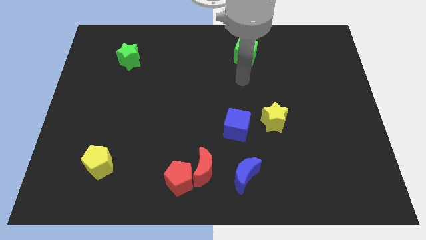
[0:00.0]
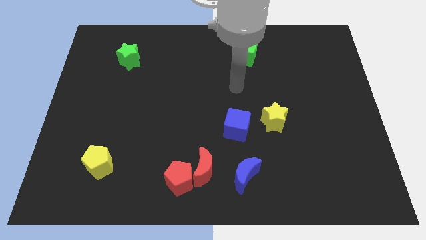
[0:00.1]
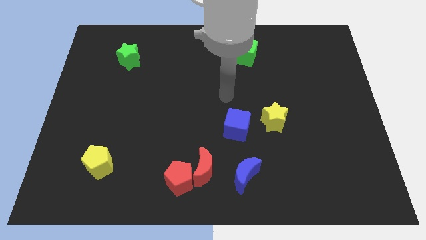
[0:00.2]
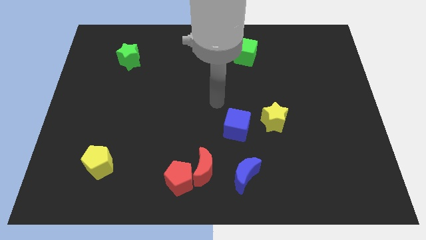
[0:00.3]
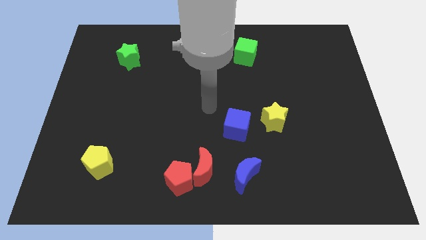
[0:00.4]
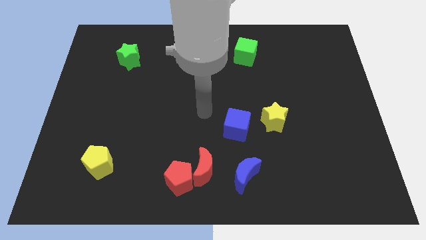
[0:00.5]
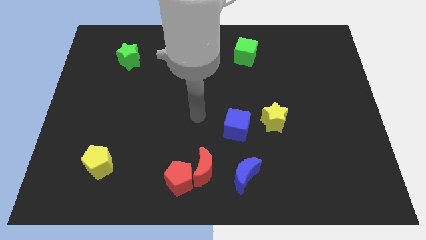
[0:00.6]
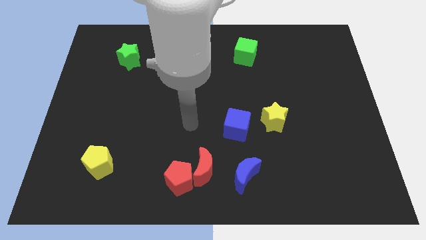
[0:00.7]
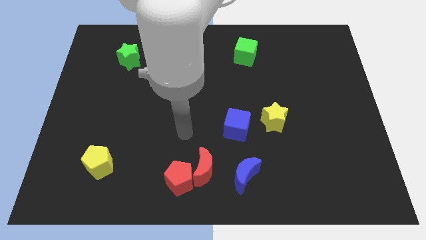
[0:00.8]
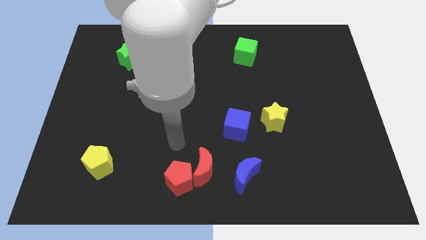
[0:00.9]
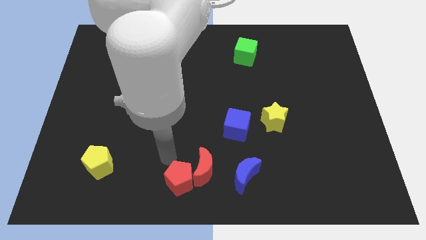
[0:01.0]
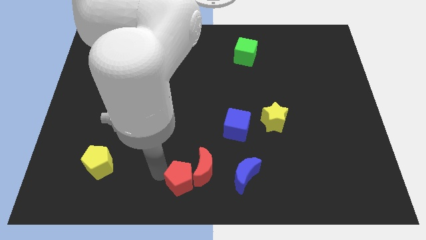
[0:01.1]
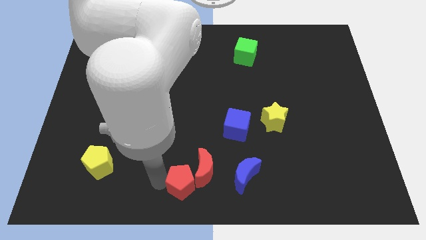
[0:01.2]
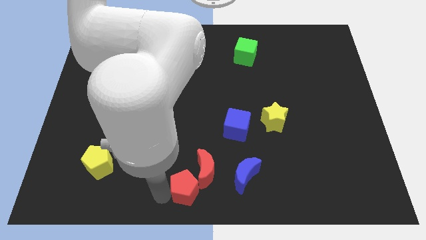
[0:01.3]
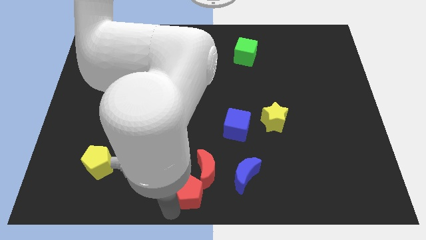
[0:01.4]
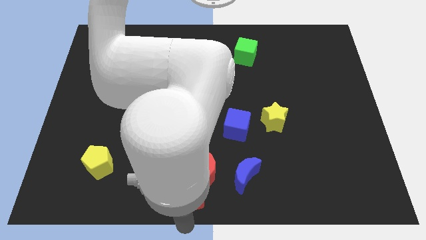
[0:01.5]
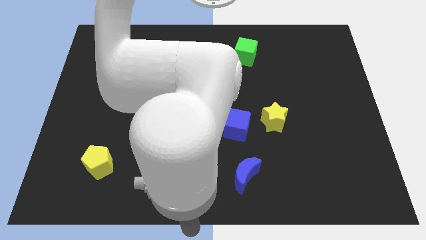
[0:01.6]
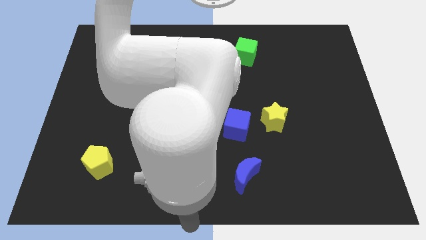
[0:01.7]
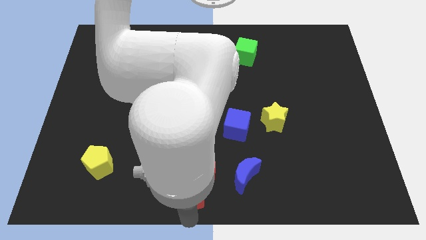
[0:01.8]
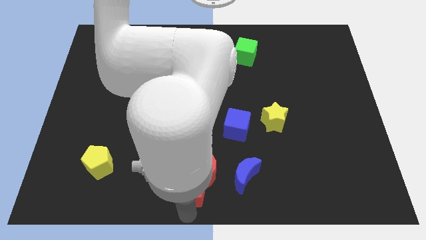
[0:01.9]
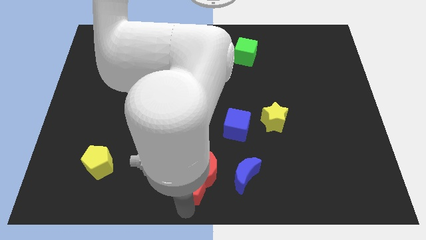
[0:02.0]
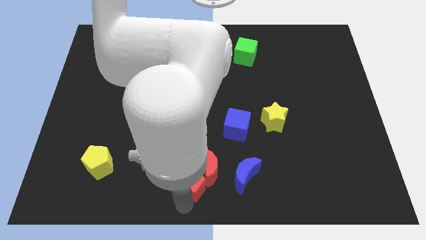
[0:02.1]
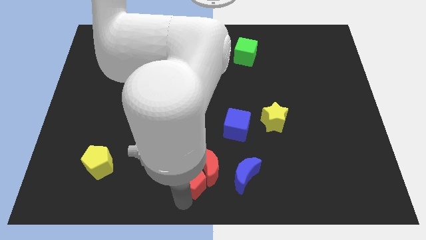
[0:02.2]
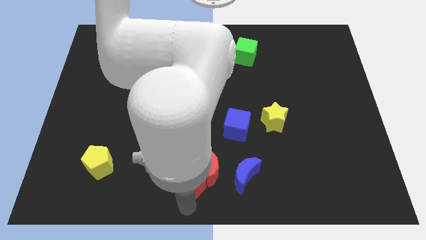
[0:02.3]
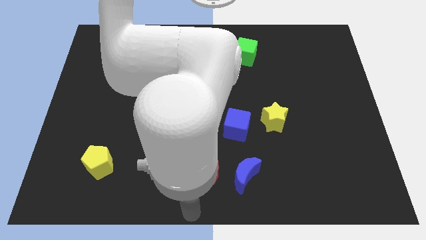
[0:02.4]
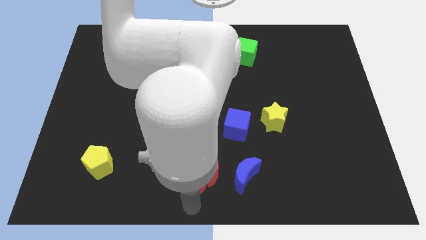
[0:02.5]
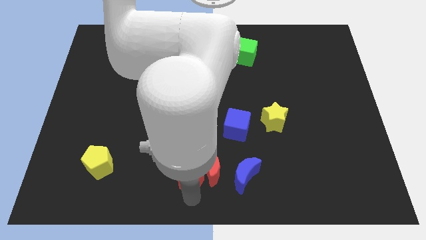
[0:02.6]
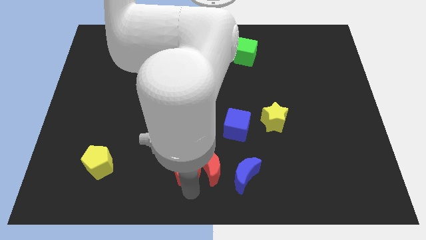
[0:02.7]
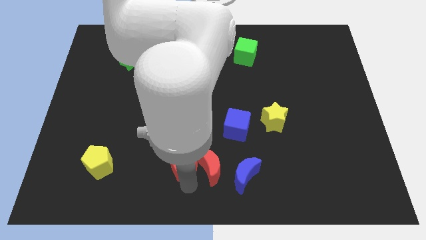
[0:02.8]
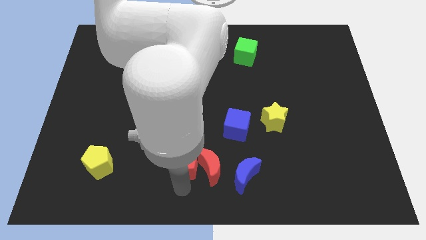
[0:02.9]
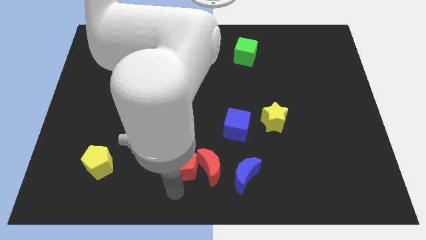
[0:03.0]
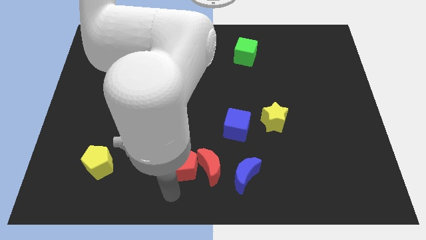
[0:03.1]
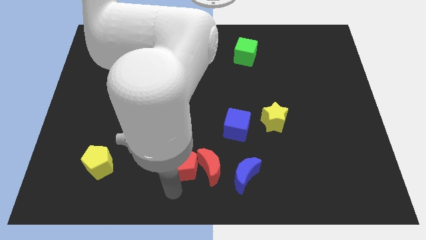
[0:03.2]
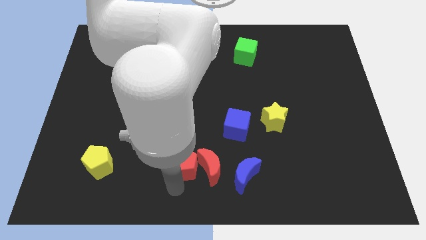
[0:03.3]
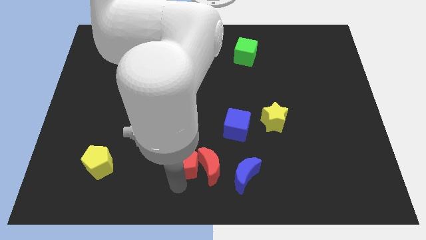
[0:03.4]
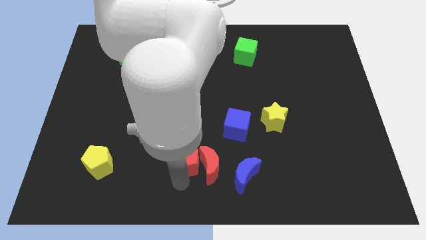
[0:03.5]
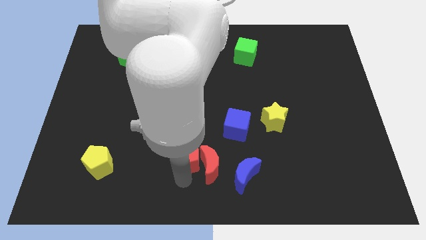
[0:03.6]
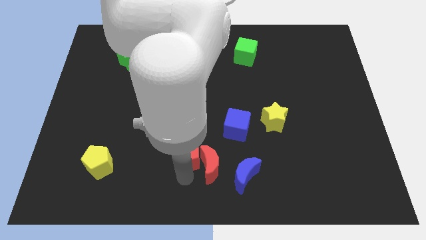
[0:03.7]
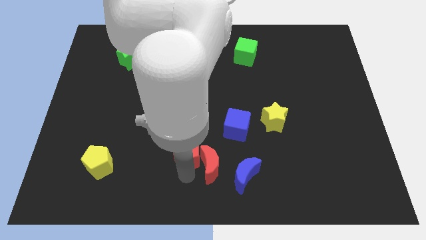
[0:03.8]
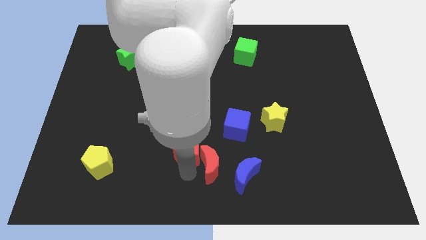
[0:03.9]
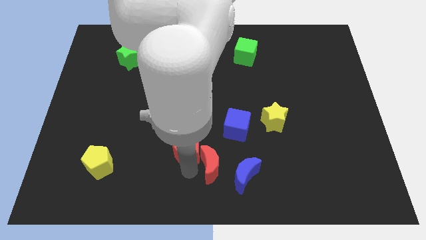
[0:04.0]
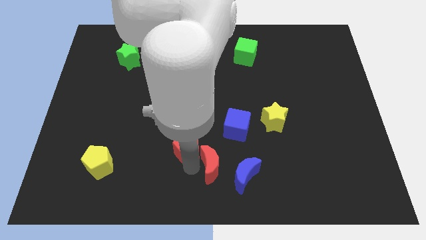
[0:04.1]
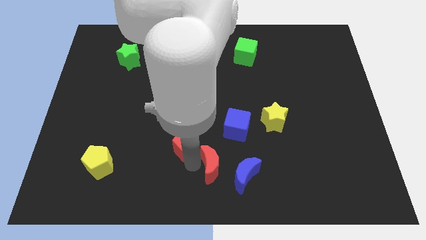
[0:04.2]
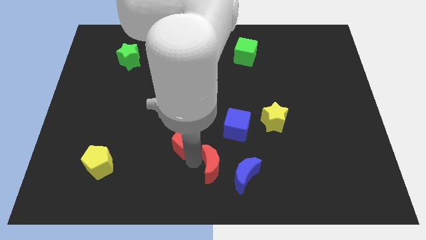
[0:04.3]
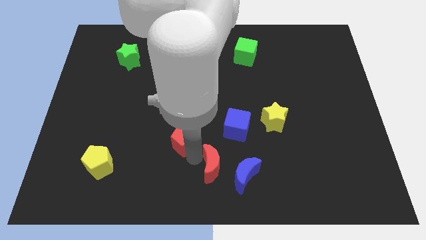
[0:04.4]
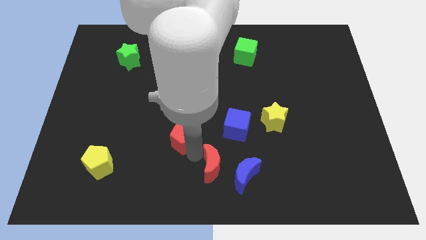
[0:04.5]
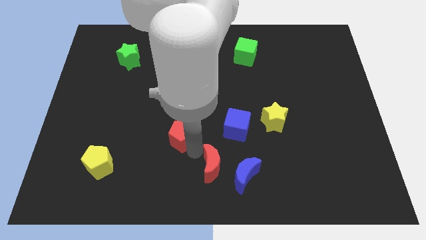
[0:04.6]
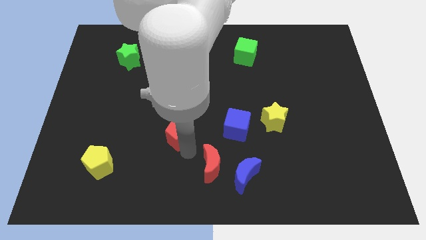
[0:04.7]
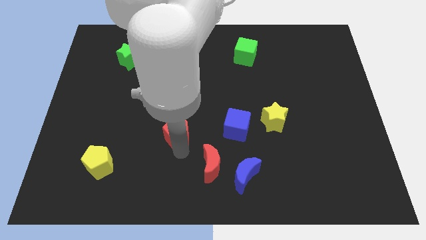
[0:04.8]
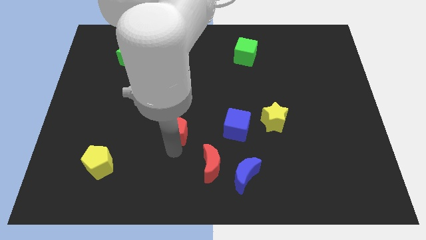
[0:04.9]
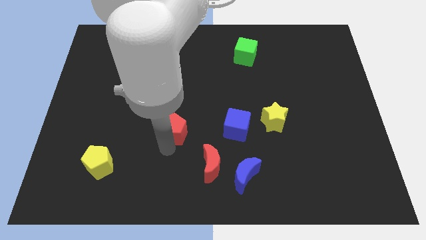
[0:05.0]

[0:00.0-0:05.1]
slide the red pentagon to the middle of the board

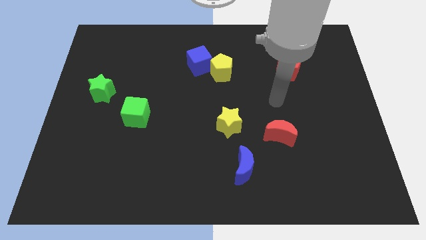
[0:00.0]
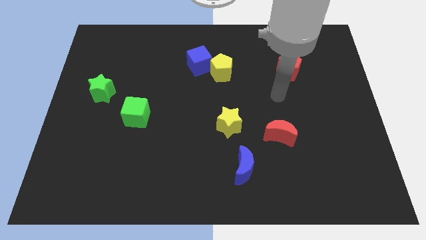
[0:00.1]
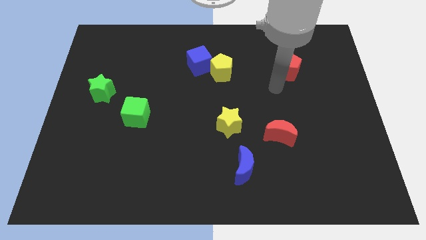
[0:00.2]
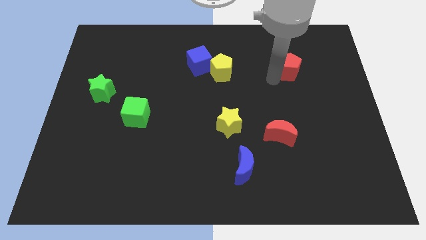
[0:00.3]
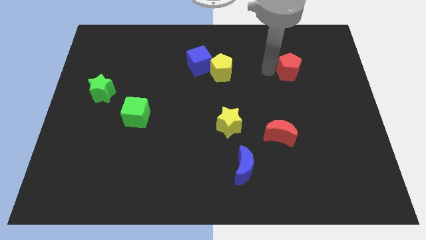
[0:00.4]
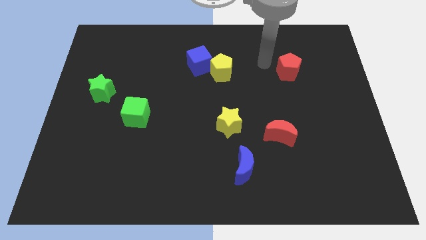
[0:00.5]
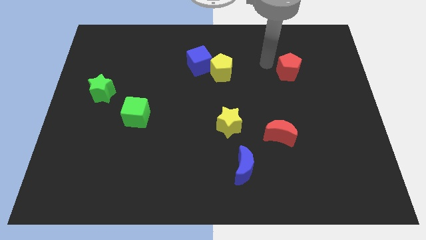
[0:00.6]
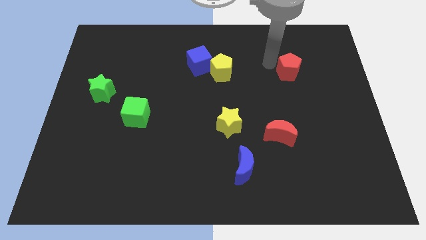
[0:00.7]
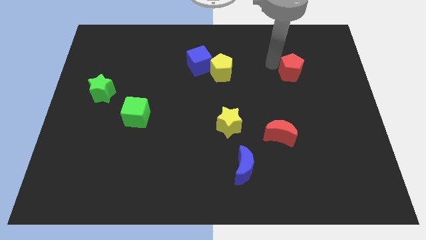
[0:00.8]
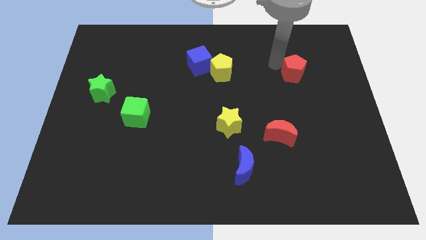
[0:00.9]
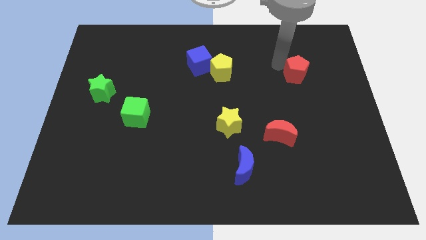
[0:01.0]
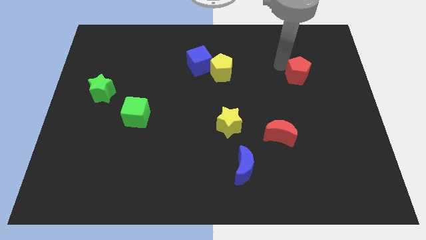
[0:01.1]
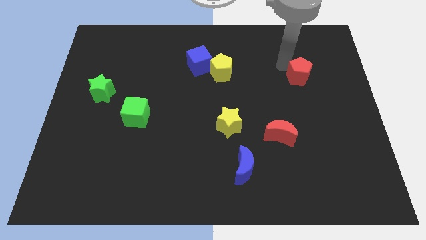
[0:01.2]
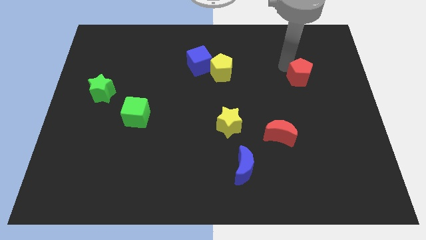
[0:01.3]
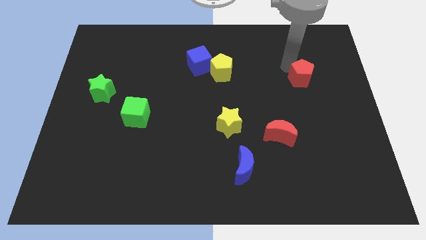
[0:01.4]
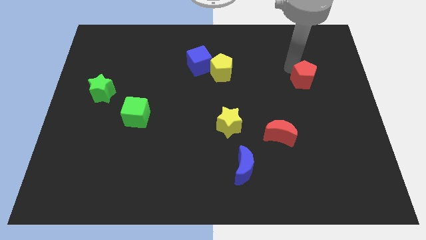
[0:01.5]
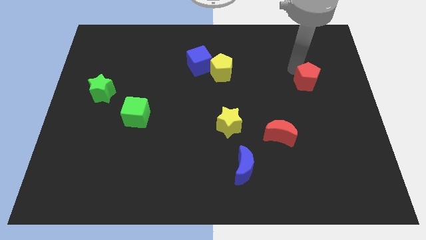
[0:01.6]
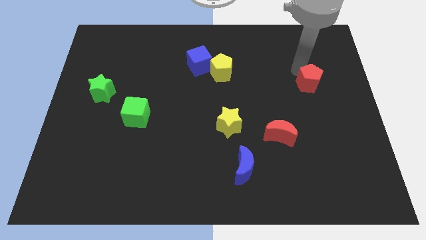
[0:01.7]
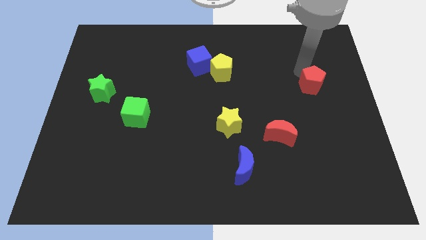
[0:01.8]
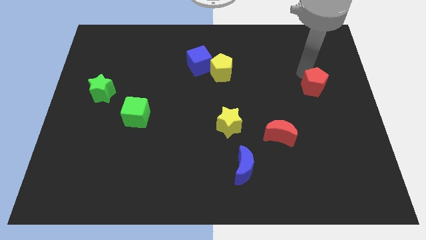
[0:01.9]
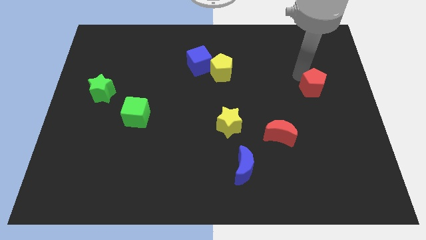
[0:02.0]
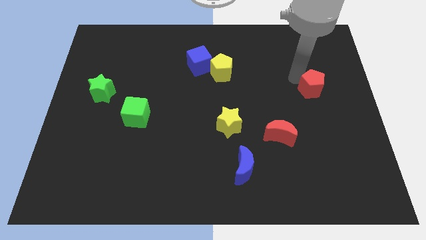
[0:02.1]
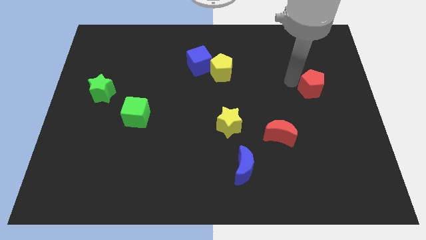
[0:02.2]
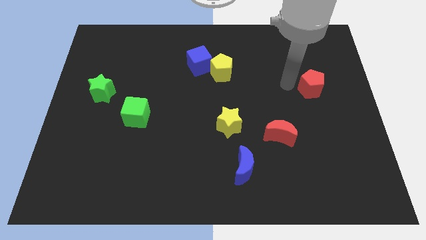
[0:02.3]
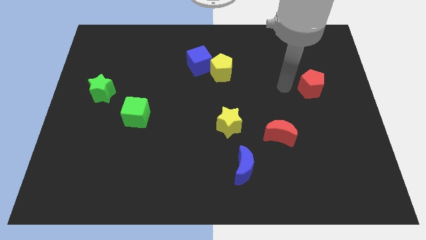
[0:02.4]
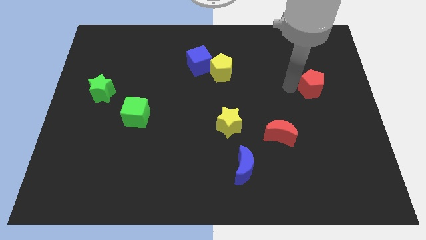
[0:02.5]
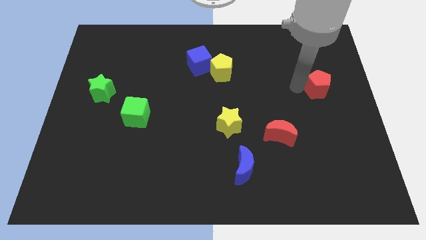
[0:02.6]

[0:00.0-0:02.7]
slide the red pentagon to the center right
